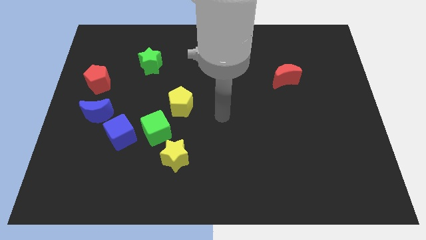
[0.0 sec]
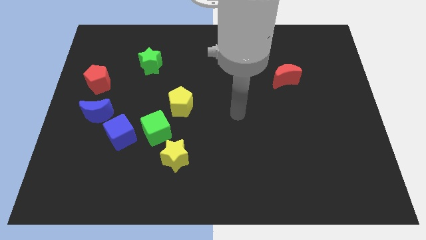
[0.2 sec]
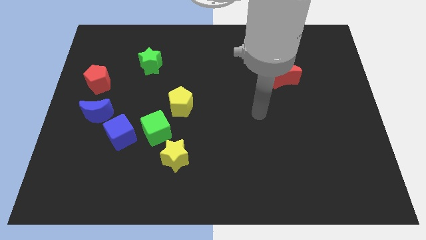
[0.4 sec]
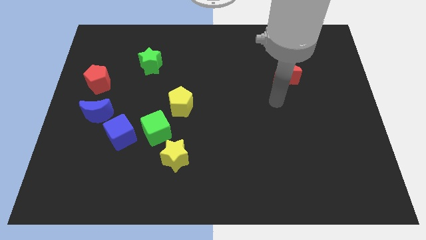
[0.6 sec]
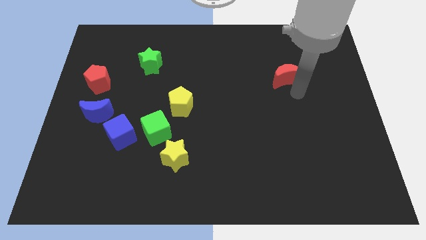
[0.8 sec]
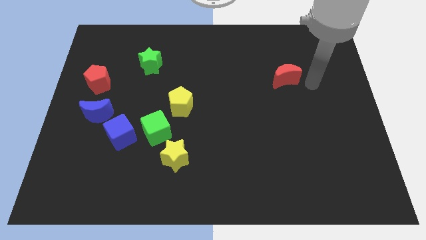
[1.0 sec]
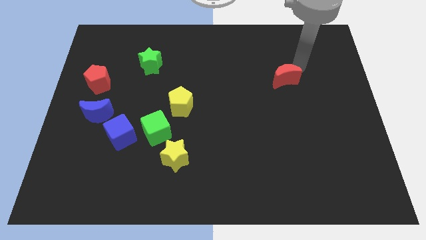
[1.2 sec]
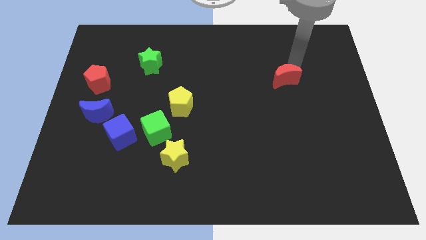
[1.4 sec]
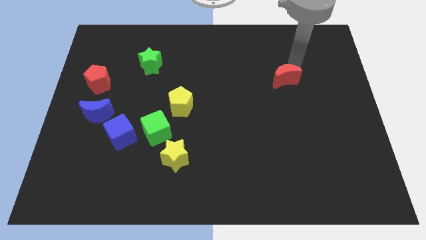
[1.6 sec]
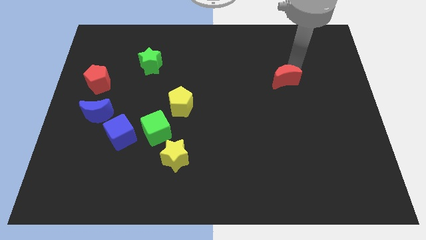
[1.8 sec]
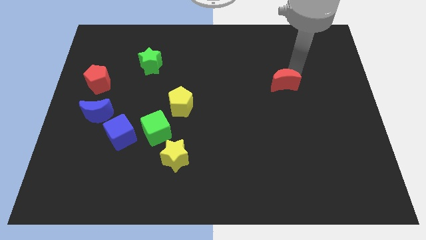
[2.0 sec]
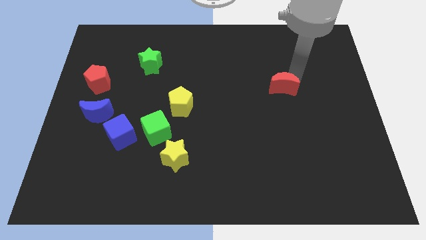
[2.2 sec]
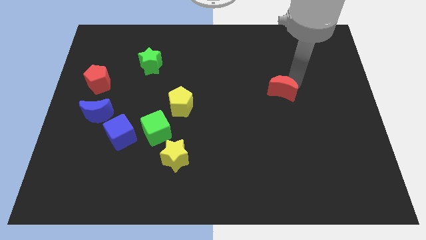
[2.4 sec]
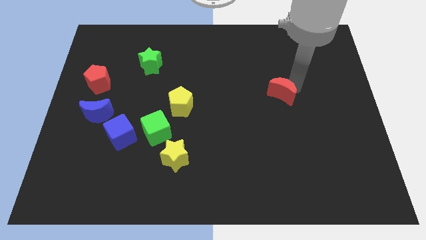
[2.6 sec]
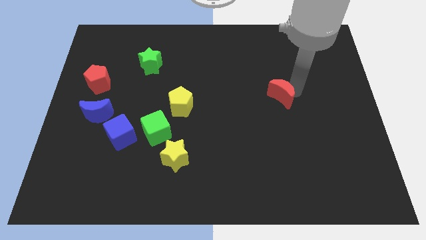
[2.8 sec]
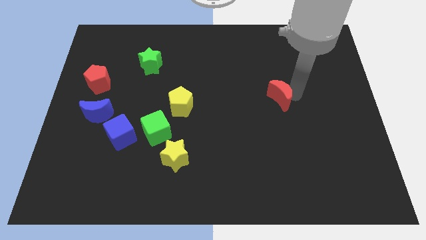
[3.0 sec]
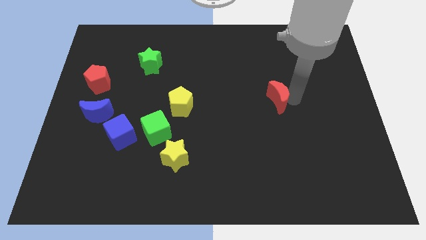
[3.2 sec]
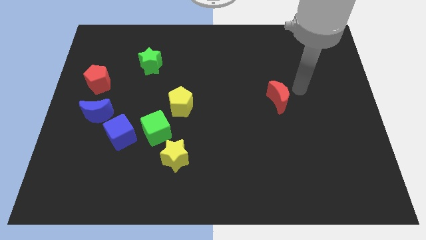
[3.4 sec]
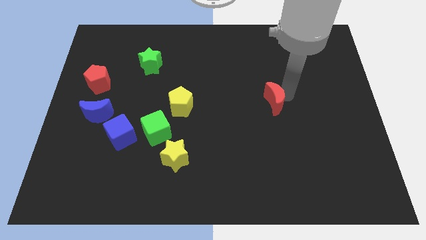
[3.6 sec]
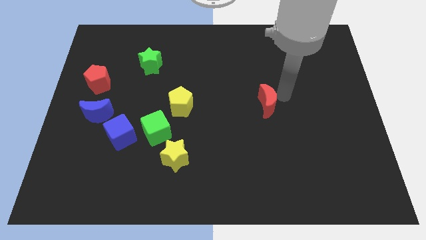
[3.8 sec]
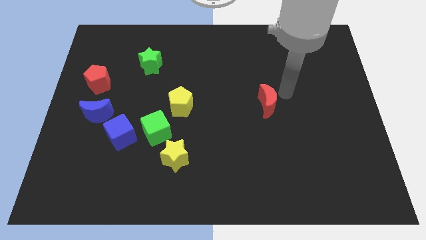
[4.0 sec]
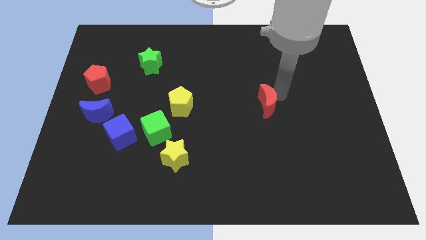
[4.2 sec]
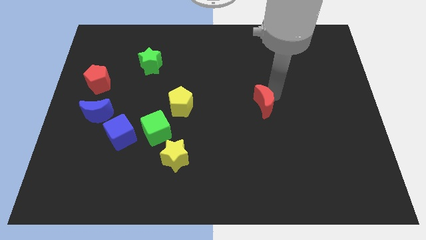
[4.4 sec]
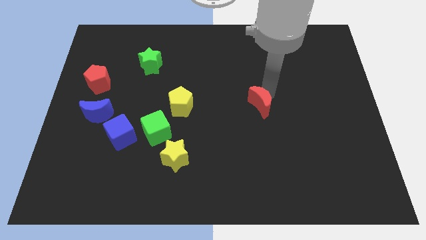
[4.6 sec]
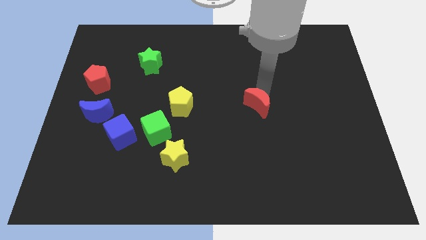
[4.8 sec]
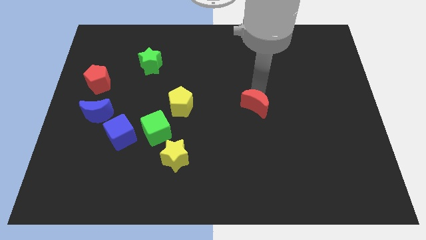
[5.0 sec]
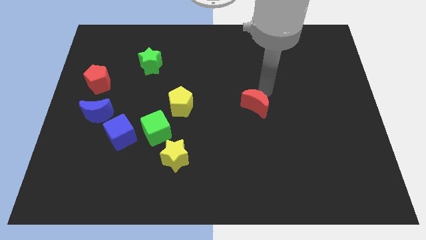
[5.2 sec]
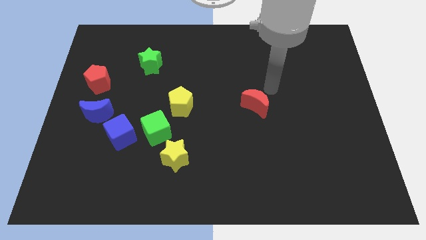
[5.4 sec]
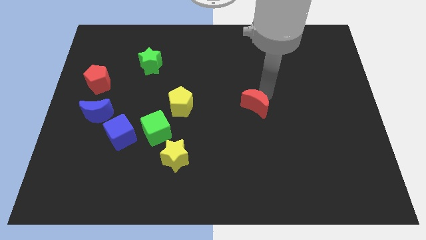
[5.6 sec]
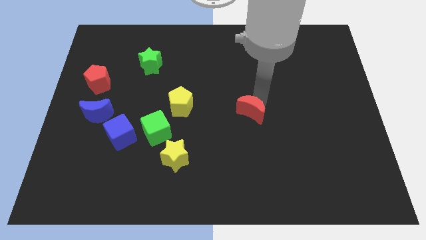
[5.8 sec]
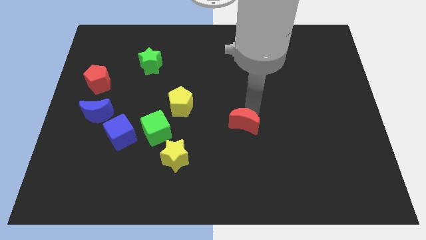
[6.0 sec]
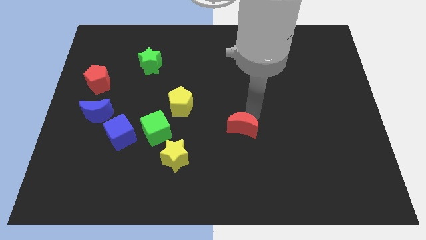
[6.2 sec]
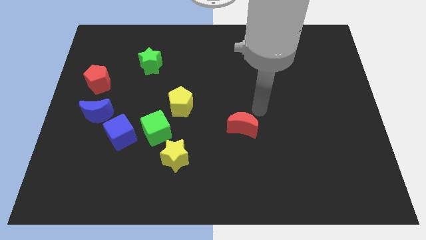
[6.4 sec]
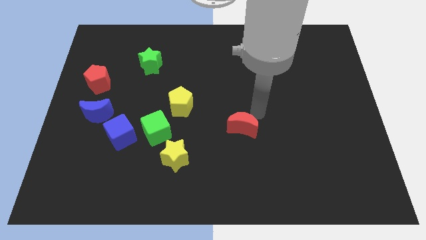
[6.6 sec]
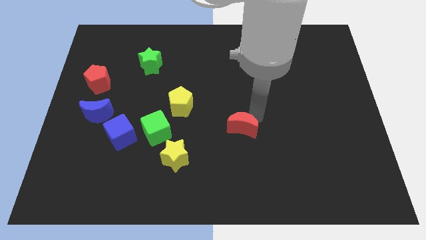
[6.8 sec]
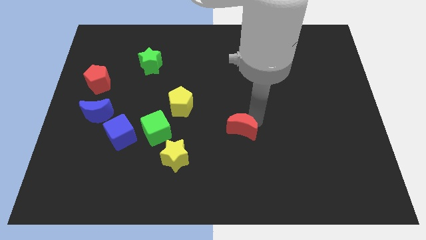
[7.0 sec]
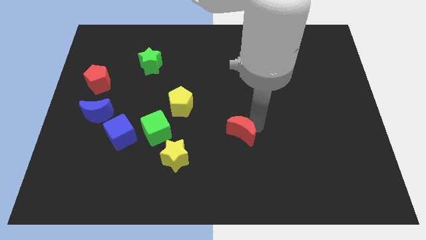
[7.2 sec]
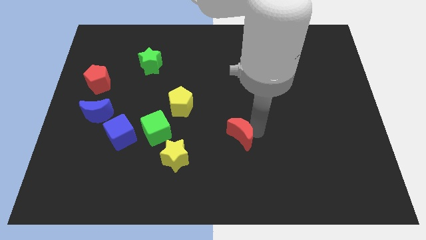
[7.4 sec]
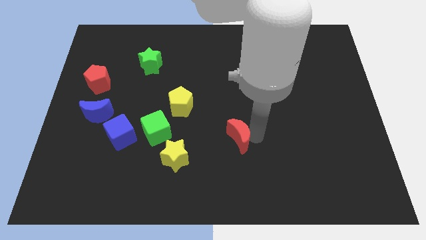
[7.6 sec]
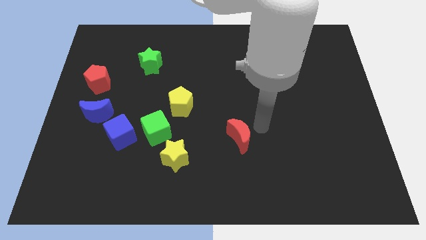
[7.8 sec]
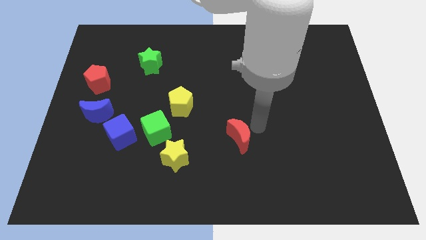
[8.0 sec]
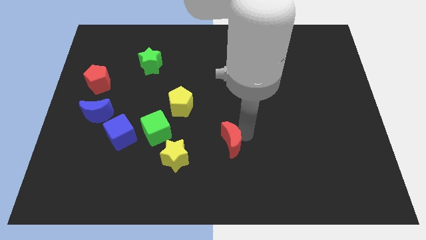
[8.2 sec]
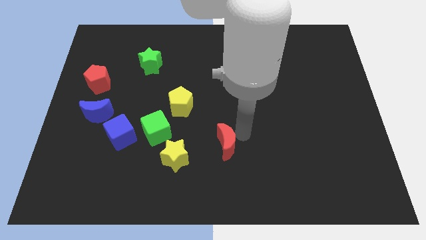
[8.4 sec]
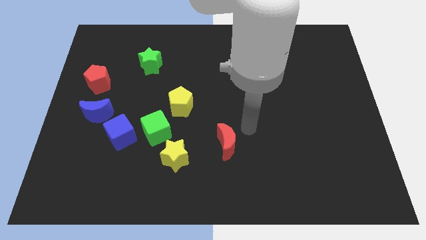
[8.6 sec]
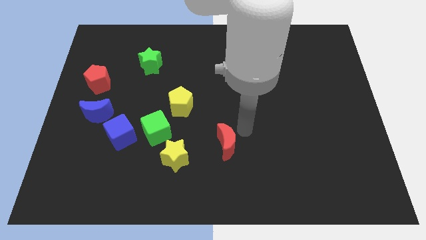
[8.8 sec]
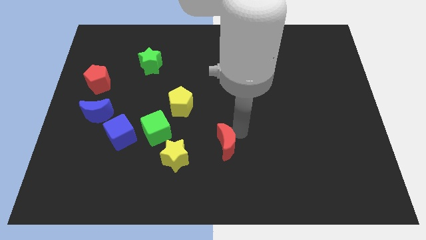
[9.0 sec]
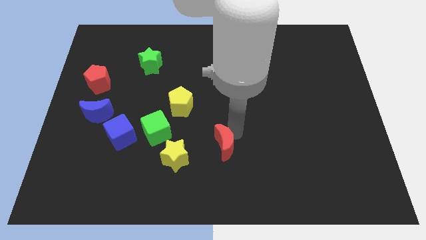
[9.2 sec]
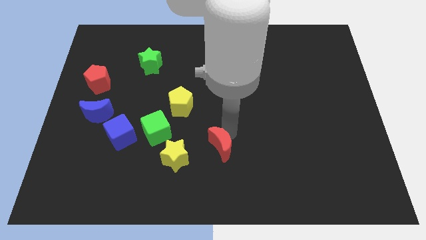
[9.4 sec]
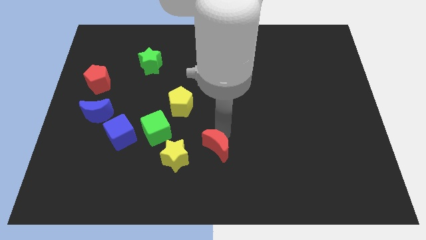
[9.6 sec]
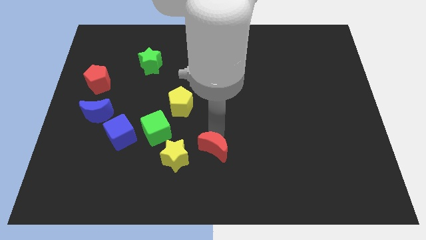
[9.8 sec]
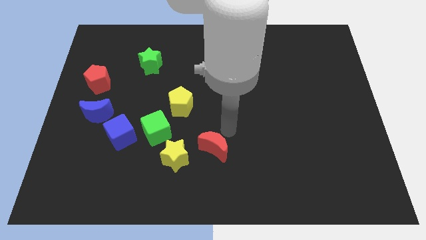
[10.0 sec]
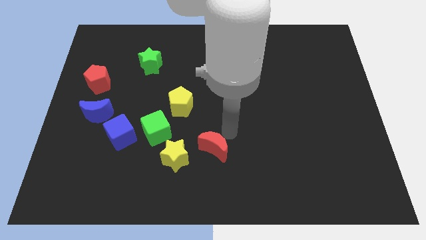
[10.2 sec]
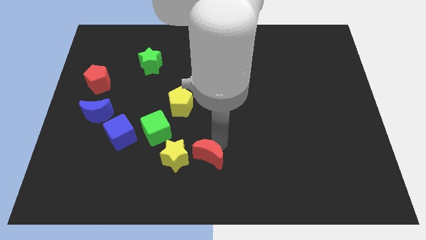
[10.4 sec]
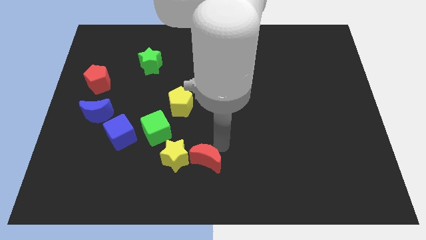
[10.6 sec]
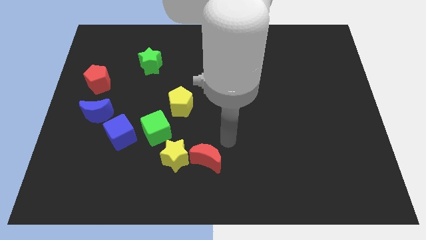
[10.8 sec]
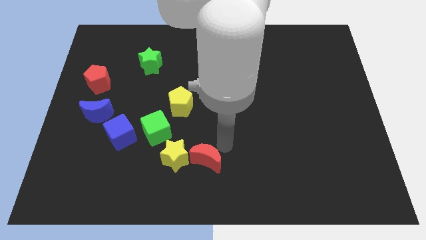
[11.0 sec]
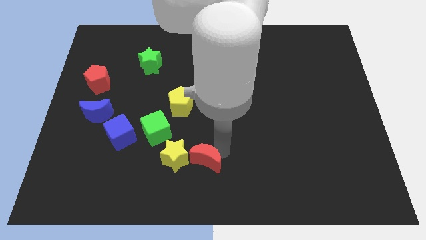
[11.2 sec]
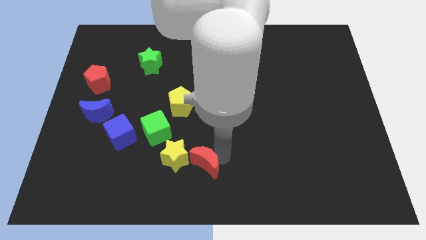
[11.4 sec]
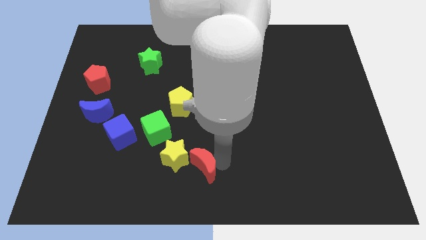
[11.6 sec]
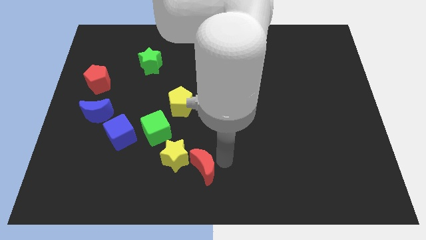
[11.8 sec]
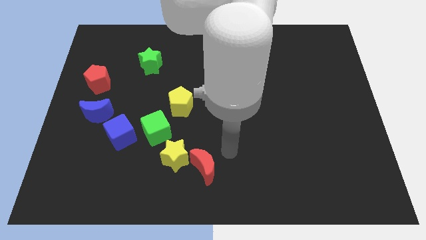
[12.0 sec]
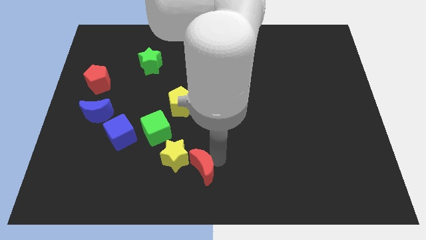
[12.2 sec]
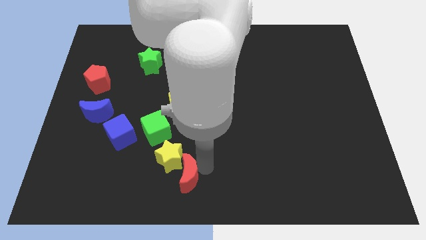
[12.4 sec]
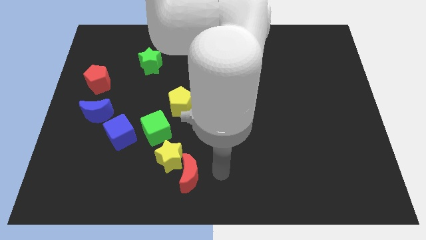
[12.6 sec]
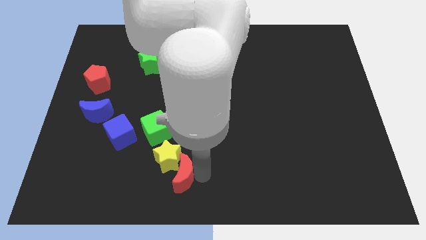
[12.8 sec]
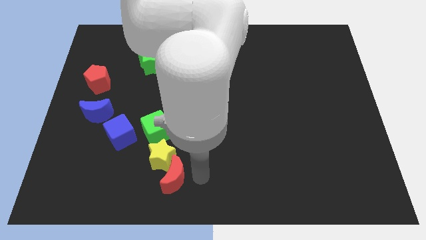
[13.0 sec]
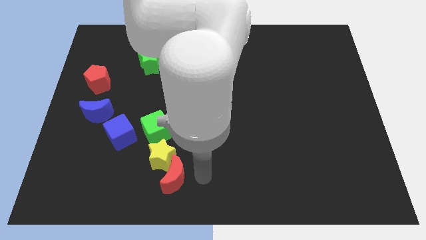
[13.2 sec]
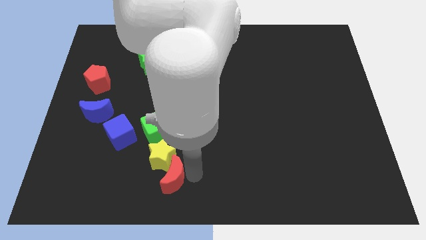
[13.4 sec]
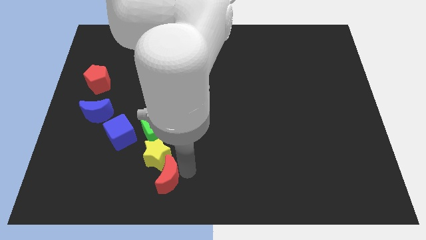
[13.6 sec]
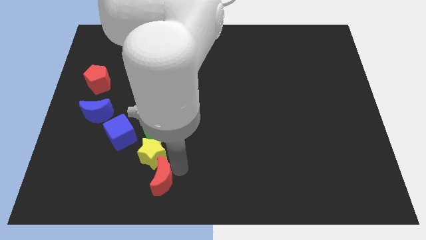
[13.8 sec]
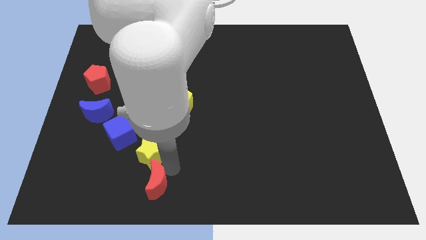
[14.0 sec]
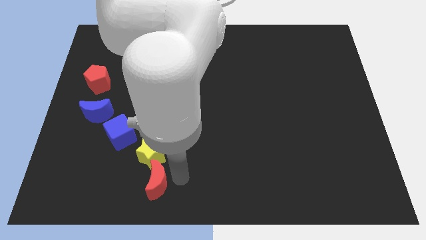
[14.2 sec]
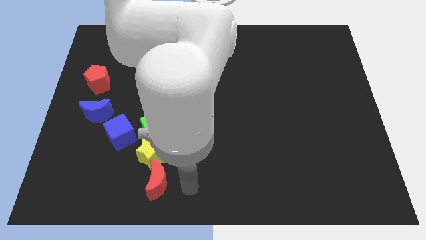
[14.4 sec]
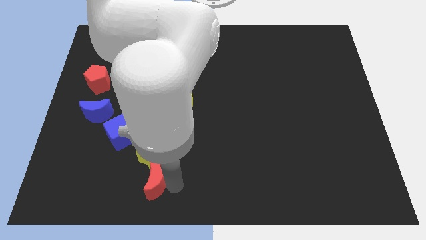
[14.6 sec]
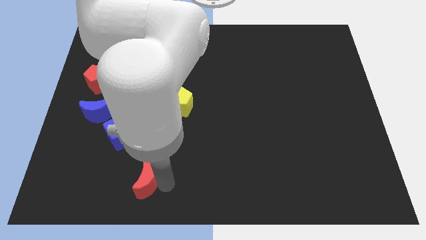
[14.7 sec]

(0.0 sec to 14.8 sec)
move the red moon to the bottom left of the yellow star
